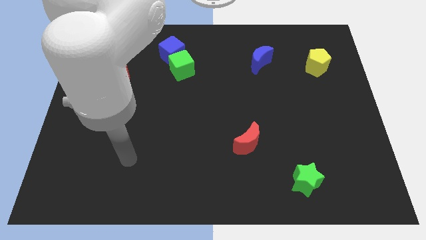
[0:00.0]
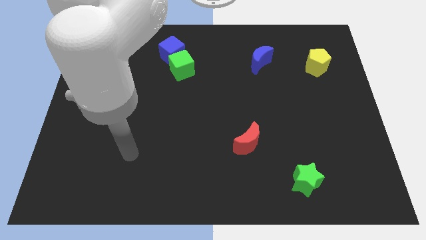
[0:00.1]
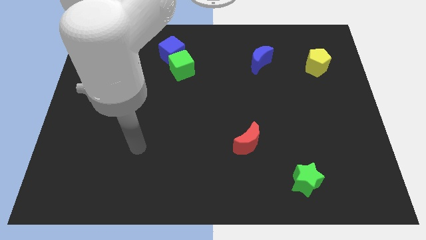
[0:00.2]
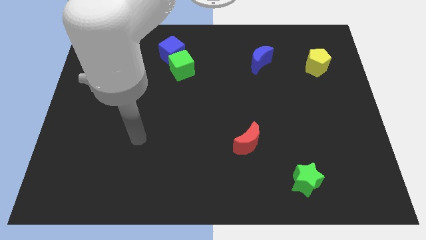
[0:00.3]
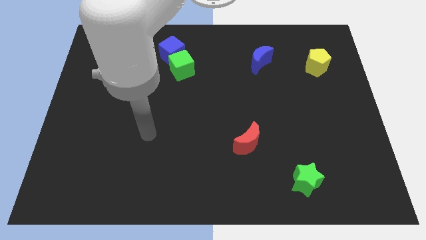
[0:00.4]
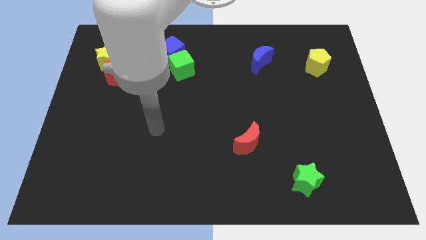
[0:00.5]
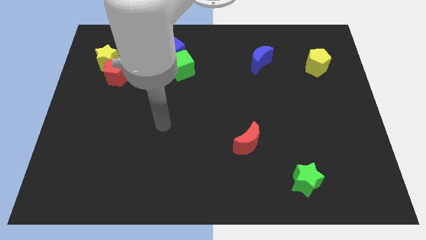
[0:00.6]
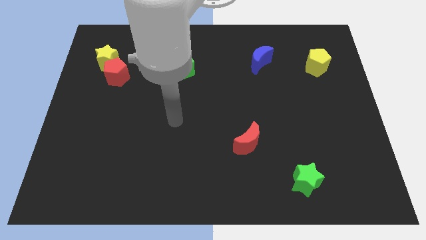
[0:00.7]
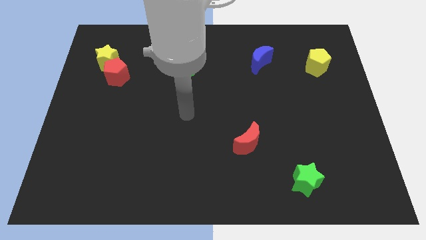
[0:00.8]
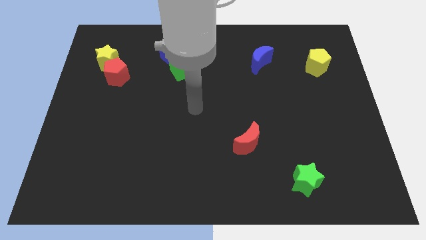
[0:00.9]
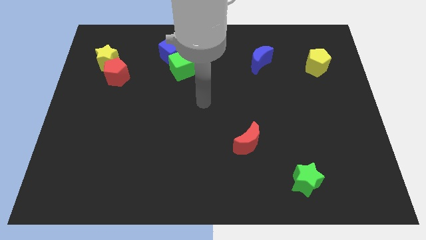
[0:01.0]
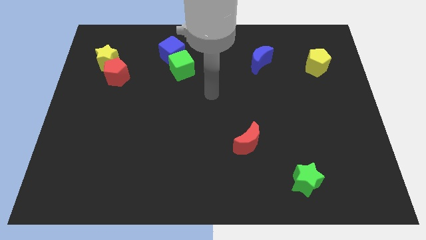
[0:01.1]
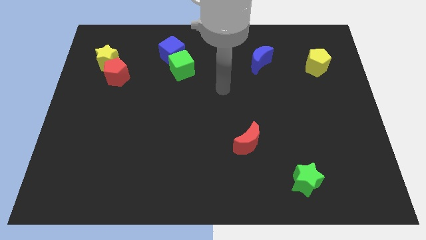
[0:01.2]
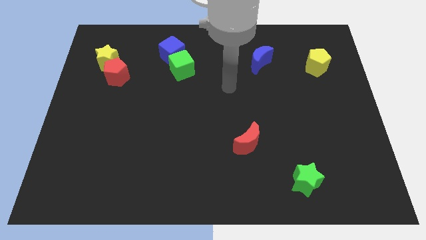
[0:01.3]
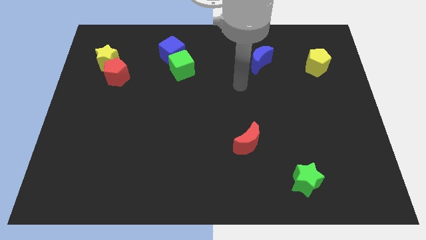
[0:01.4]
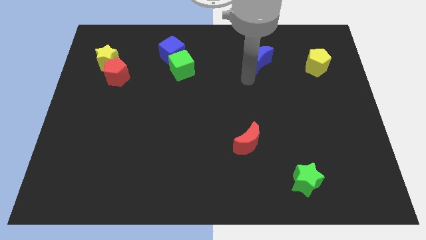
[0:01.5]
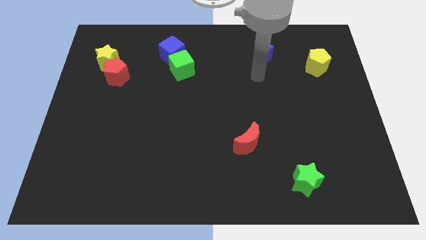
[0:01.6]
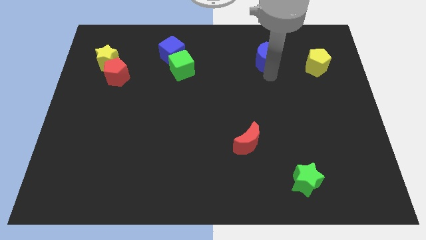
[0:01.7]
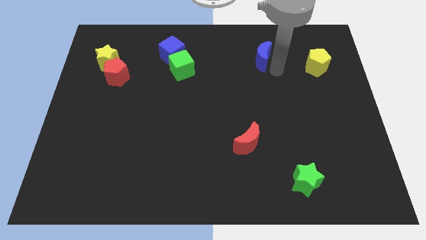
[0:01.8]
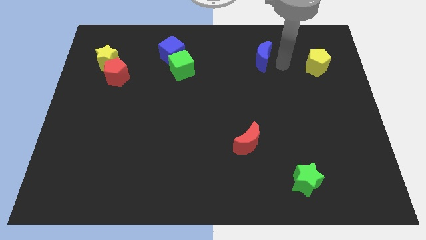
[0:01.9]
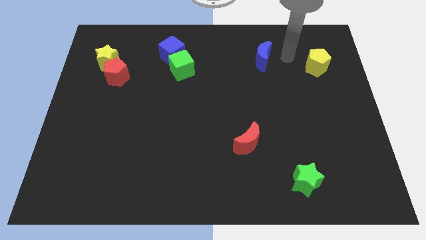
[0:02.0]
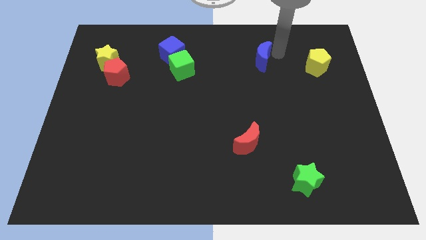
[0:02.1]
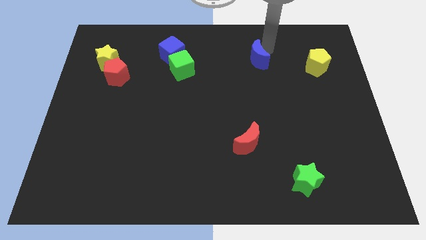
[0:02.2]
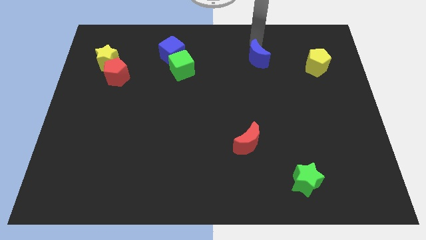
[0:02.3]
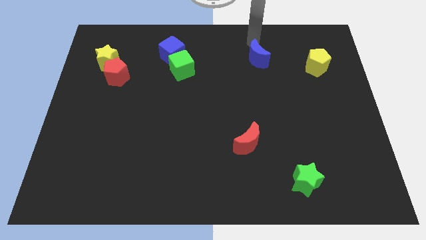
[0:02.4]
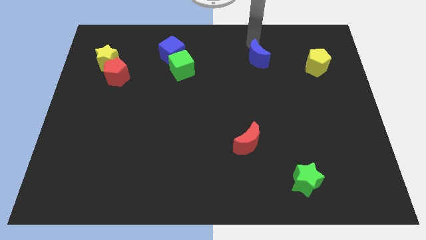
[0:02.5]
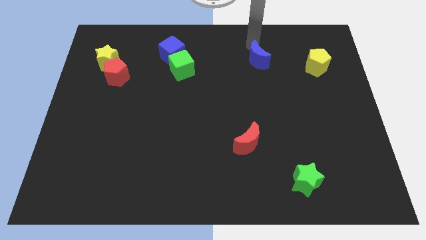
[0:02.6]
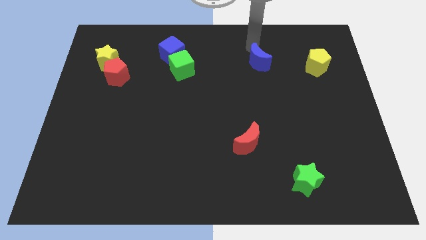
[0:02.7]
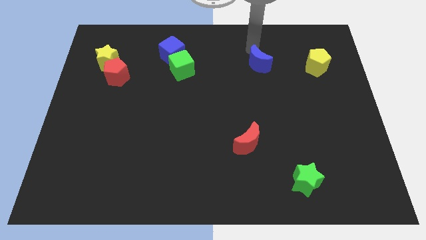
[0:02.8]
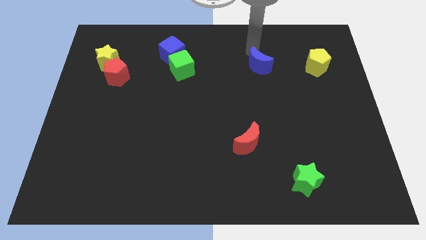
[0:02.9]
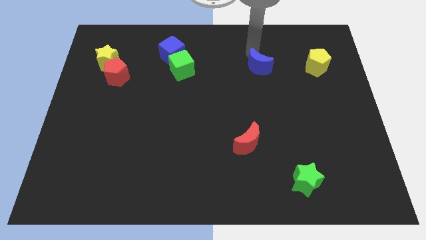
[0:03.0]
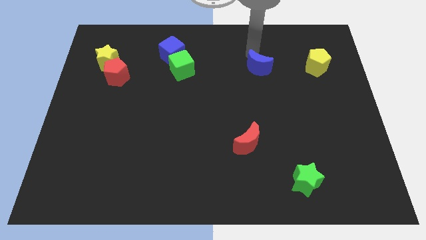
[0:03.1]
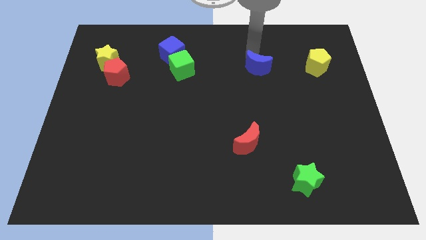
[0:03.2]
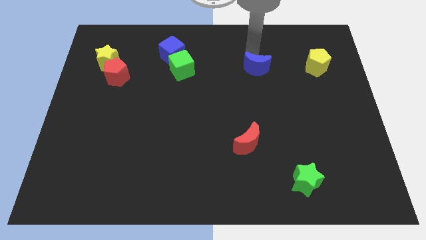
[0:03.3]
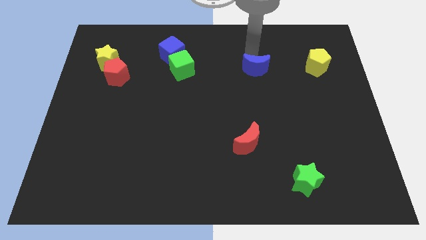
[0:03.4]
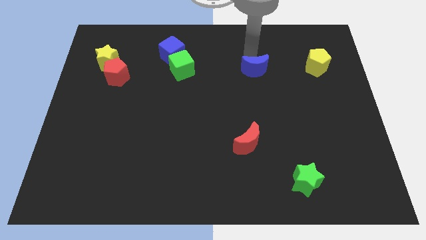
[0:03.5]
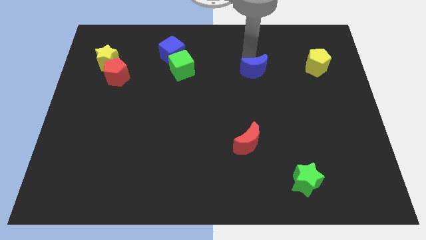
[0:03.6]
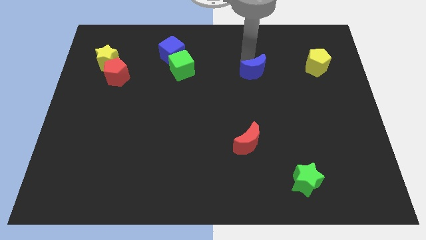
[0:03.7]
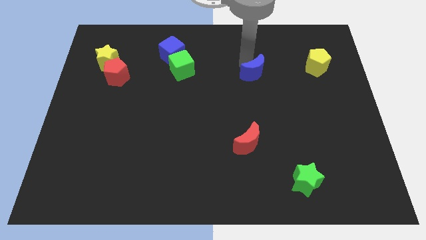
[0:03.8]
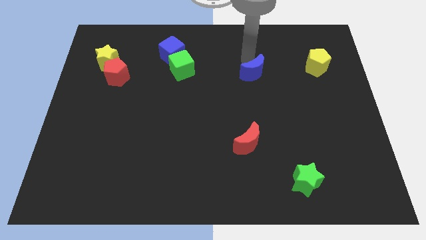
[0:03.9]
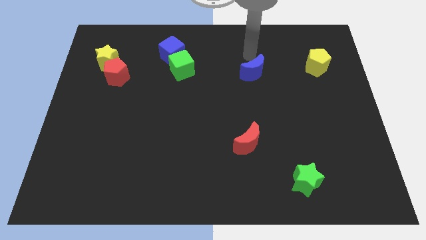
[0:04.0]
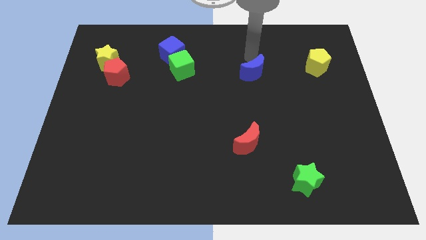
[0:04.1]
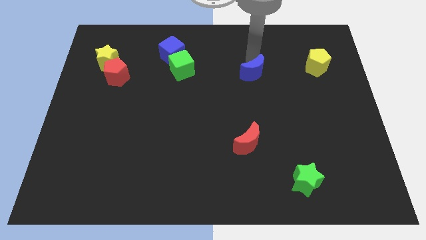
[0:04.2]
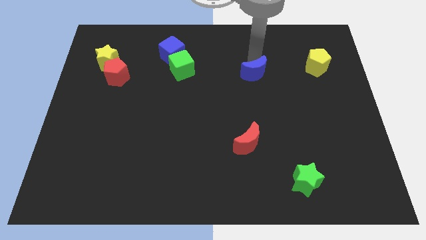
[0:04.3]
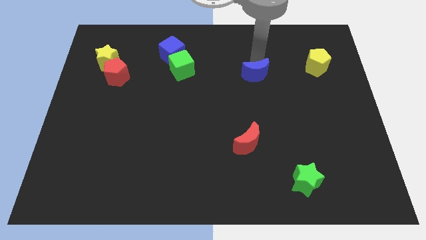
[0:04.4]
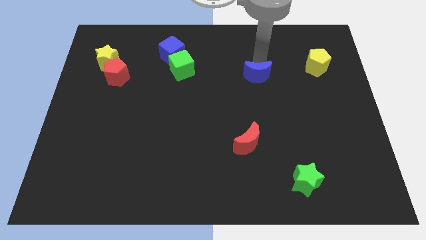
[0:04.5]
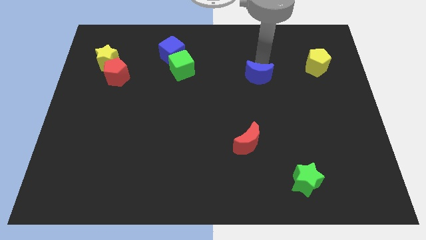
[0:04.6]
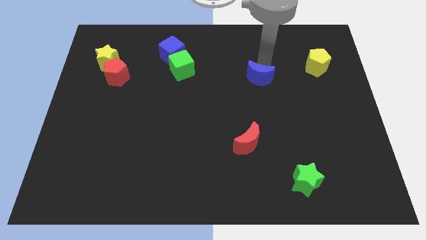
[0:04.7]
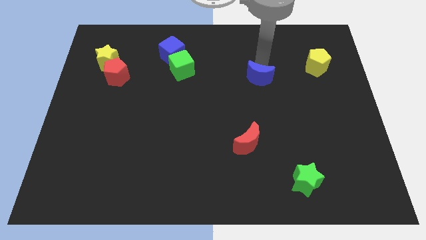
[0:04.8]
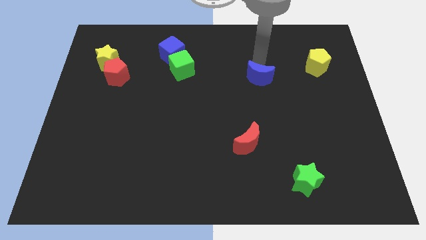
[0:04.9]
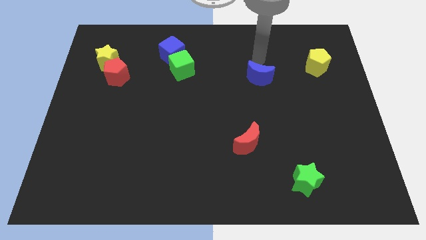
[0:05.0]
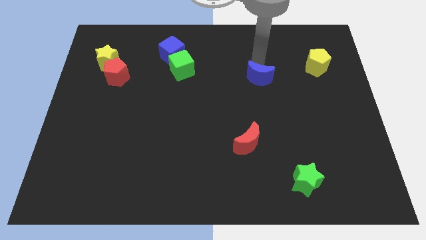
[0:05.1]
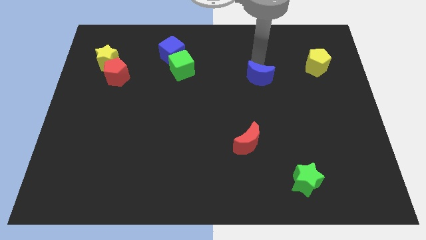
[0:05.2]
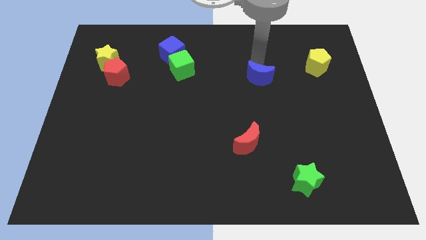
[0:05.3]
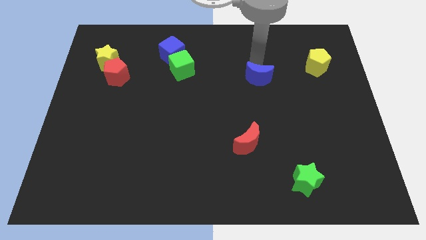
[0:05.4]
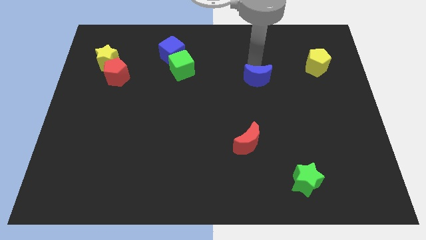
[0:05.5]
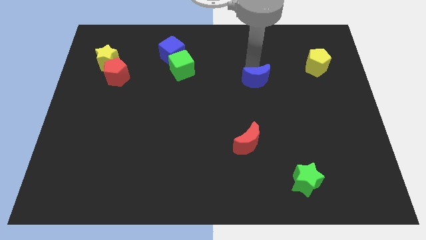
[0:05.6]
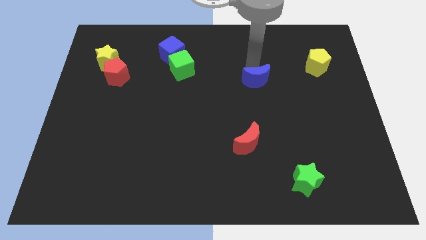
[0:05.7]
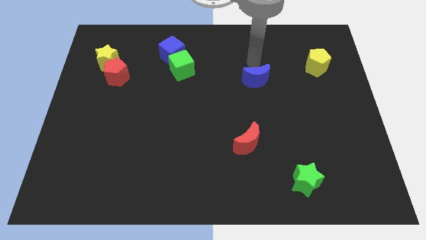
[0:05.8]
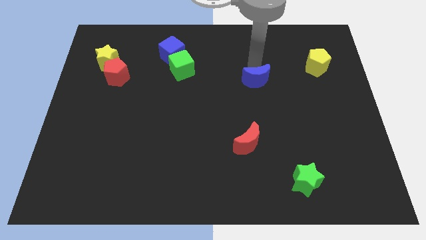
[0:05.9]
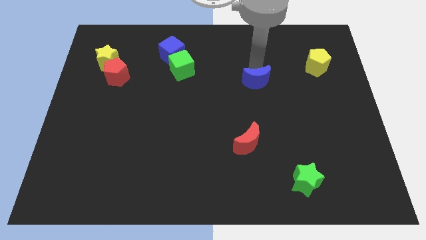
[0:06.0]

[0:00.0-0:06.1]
move the blue moon a bit down

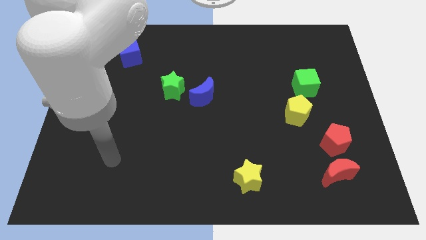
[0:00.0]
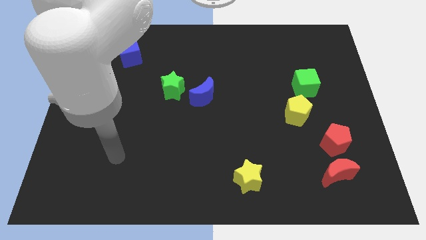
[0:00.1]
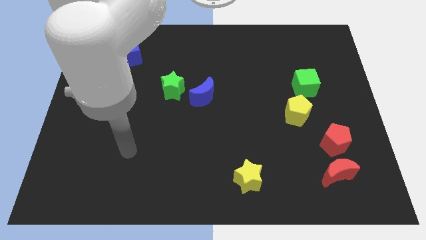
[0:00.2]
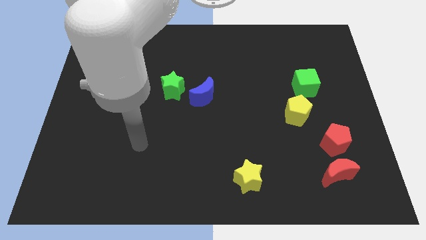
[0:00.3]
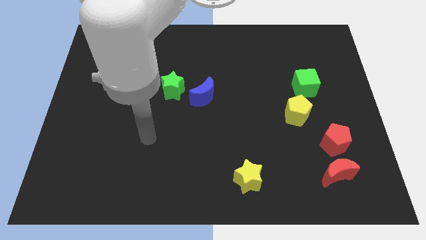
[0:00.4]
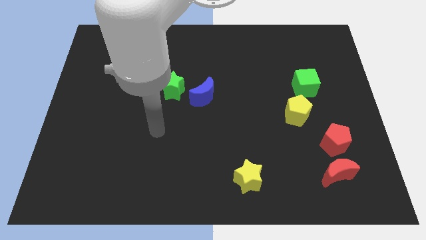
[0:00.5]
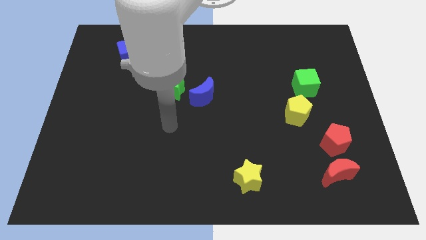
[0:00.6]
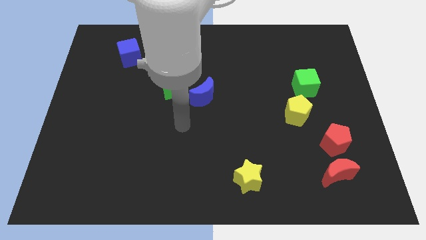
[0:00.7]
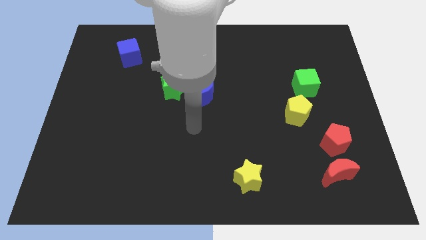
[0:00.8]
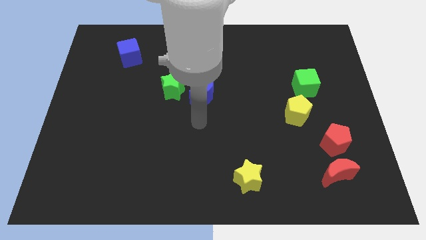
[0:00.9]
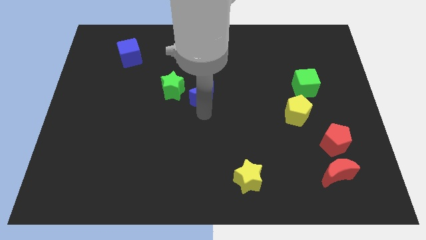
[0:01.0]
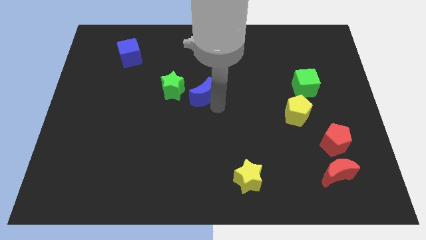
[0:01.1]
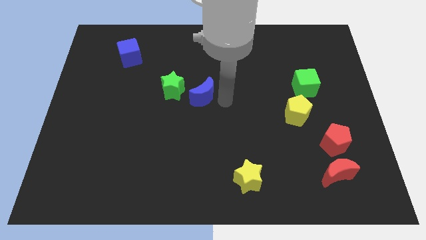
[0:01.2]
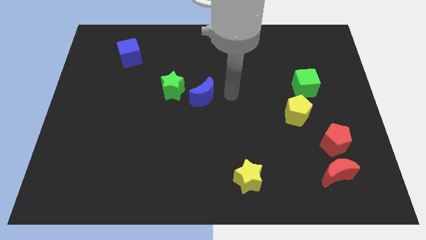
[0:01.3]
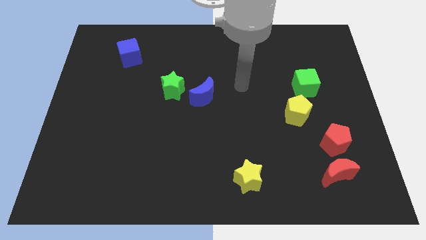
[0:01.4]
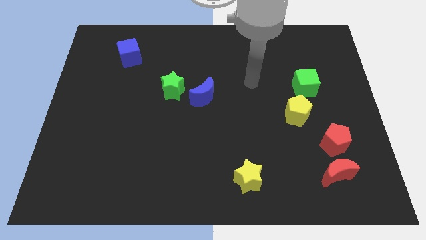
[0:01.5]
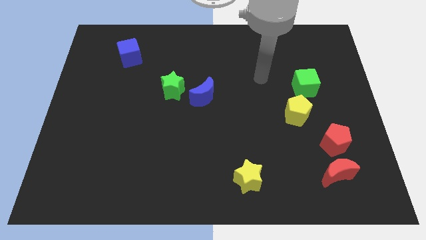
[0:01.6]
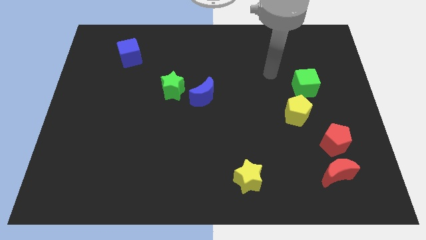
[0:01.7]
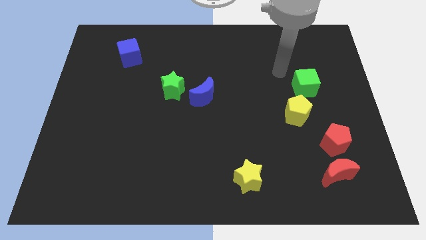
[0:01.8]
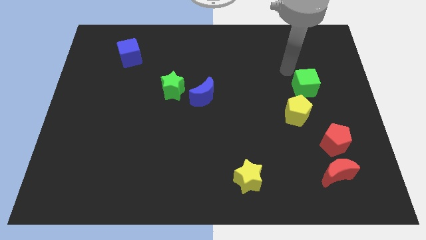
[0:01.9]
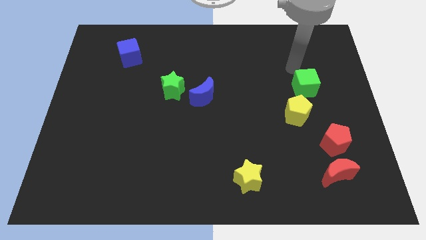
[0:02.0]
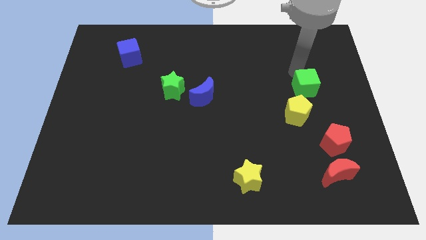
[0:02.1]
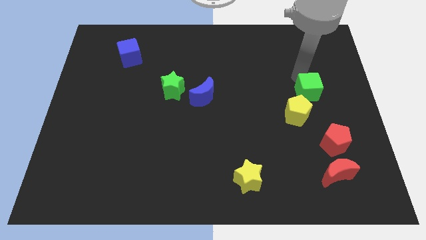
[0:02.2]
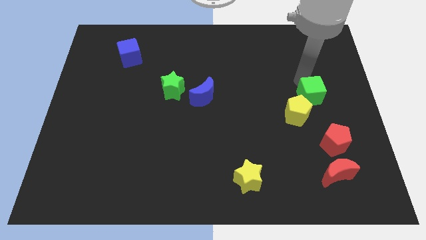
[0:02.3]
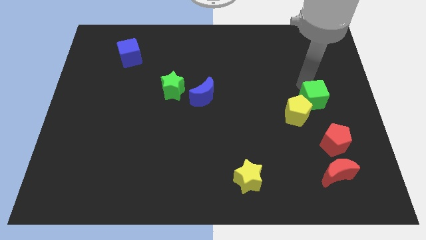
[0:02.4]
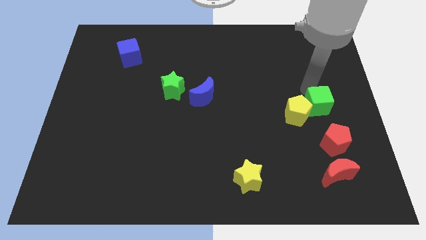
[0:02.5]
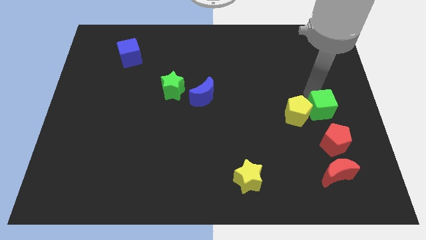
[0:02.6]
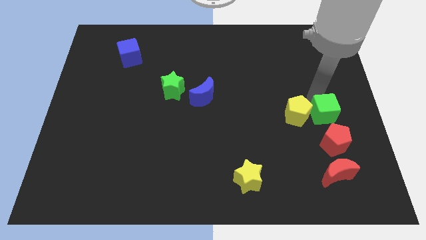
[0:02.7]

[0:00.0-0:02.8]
slightly slide the green cube downwards
